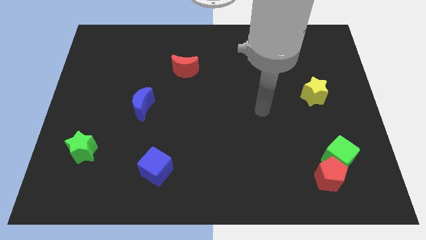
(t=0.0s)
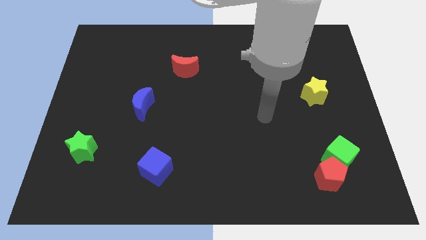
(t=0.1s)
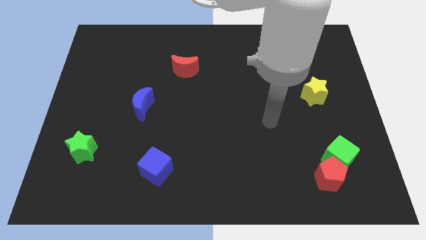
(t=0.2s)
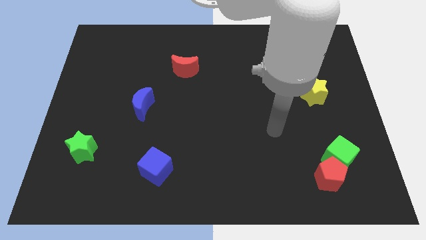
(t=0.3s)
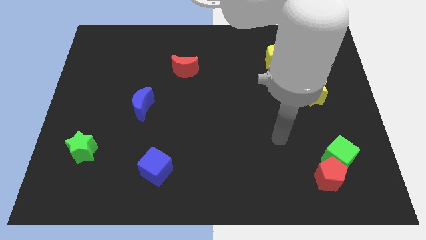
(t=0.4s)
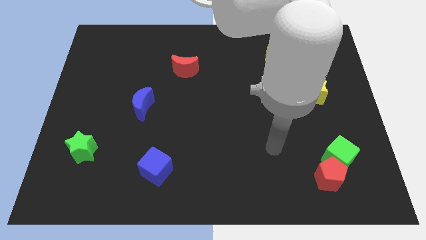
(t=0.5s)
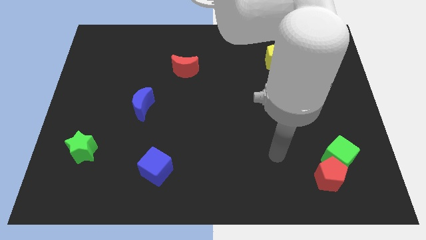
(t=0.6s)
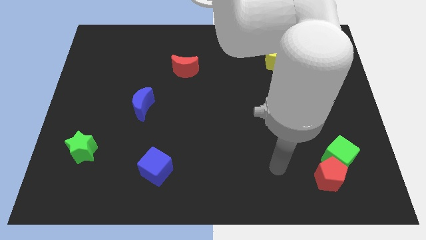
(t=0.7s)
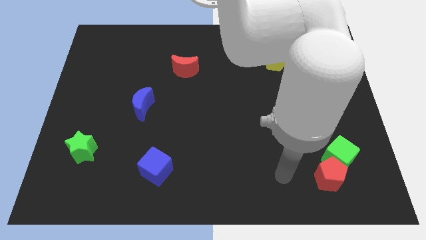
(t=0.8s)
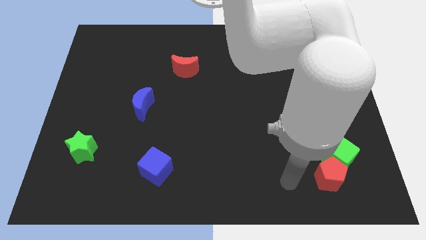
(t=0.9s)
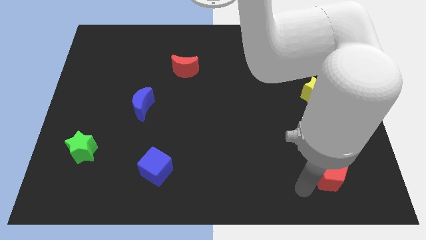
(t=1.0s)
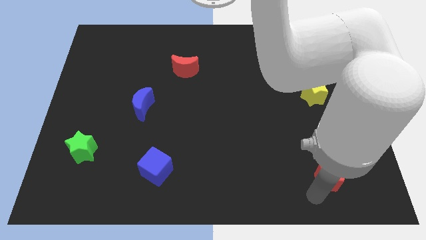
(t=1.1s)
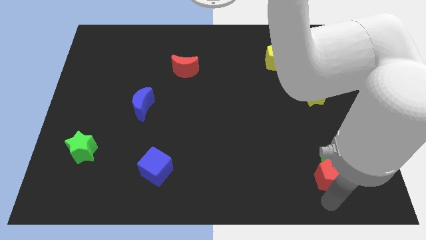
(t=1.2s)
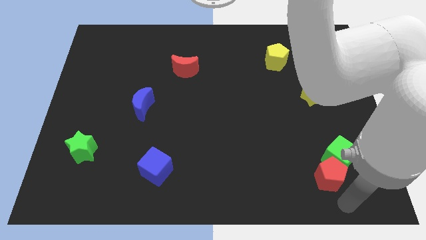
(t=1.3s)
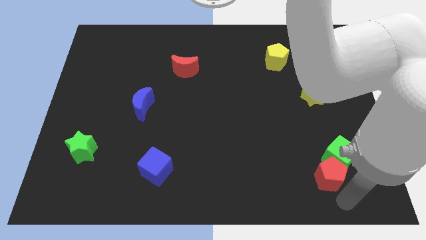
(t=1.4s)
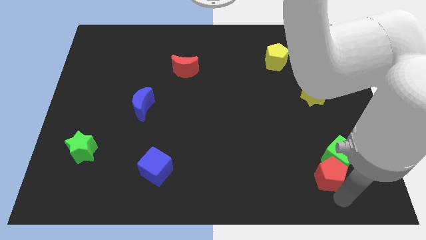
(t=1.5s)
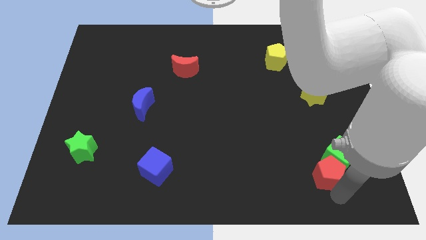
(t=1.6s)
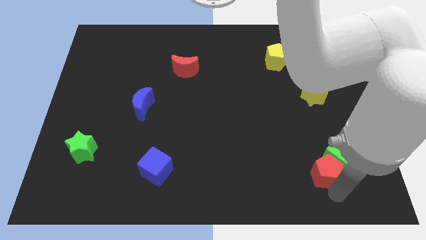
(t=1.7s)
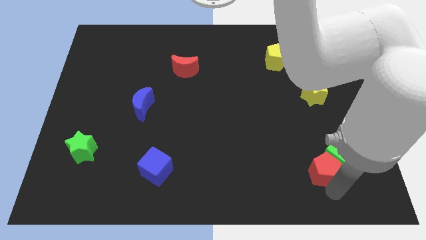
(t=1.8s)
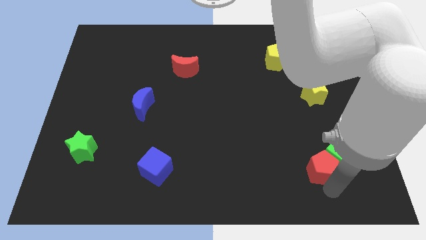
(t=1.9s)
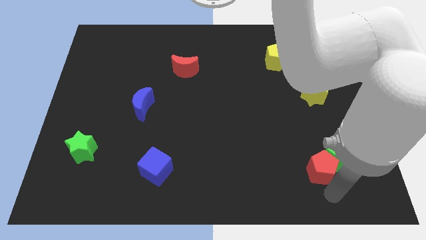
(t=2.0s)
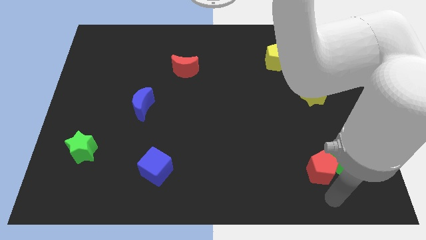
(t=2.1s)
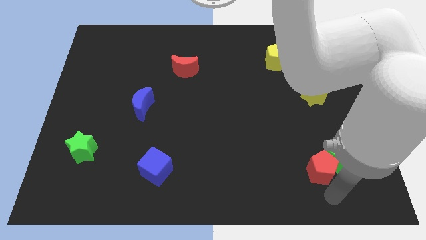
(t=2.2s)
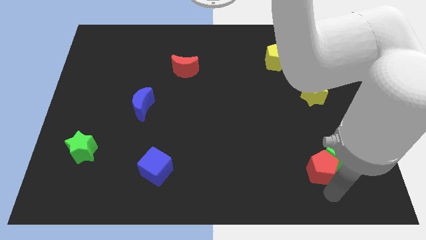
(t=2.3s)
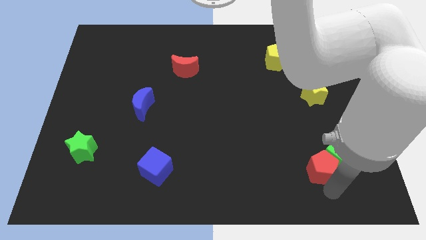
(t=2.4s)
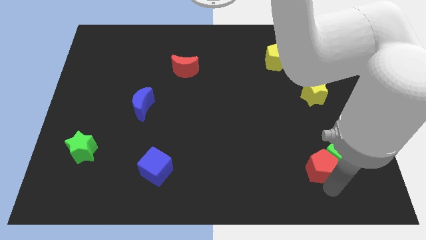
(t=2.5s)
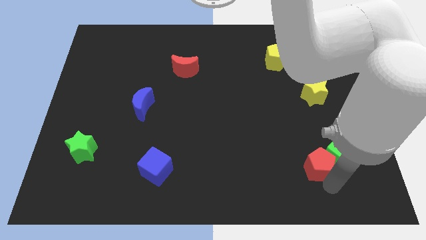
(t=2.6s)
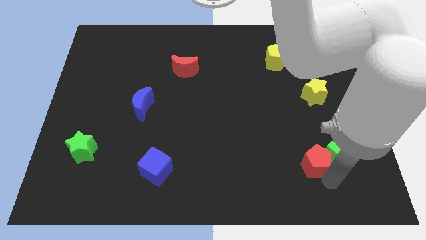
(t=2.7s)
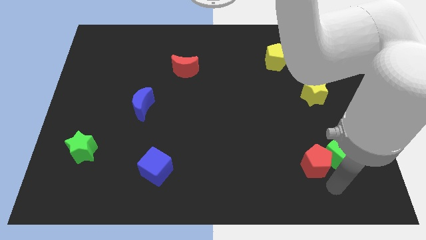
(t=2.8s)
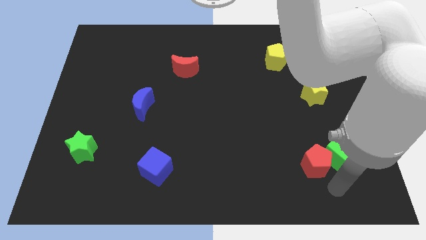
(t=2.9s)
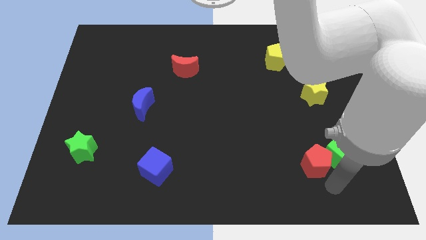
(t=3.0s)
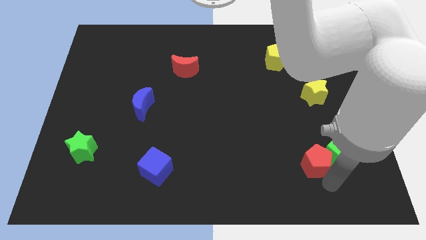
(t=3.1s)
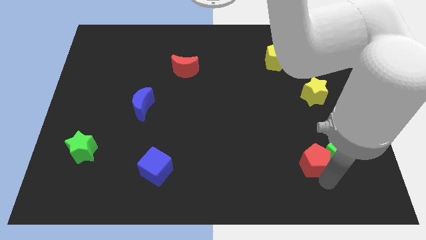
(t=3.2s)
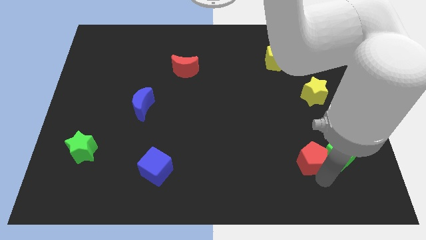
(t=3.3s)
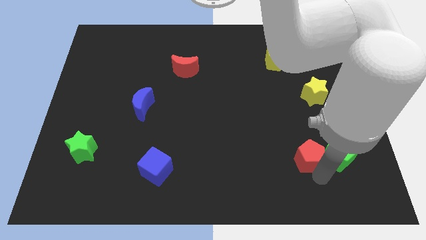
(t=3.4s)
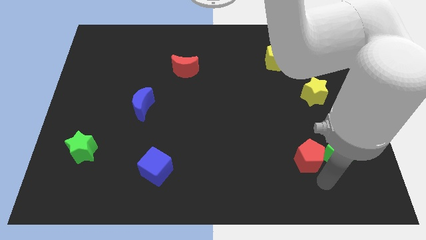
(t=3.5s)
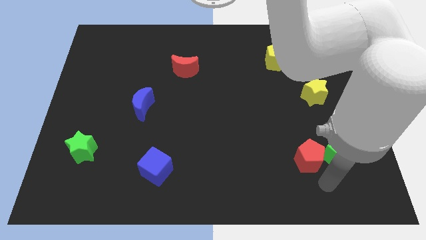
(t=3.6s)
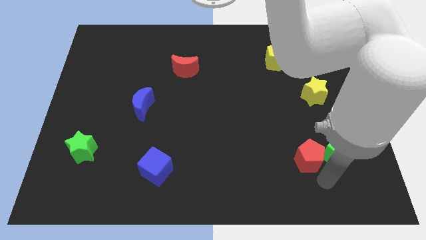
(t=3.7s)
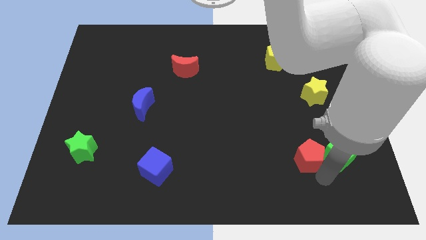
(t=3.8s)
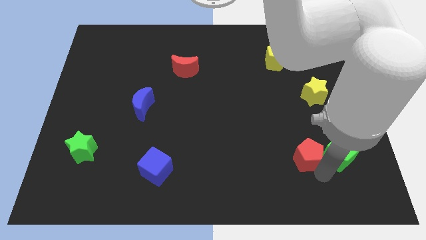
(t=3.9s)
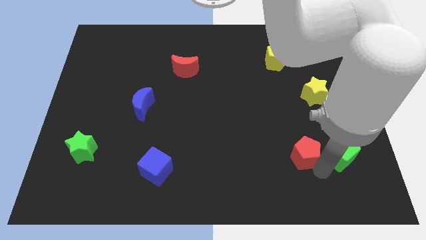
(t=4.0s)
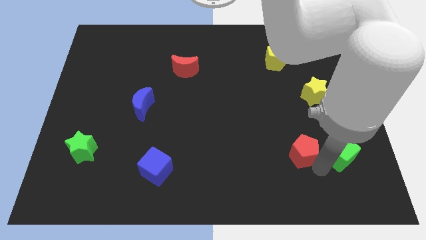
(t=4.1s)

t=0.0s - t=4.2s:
move the red pentagon up and to the left slightly

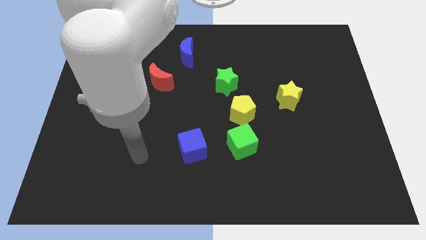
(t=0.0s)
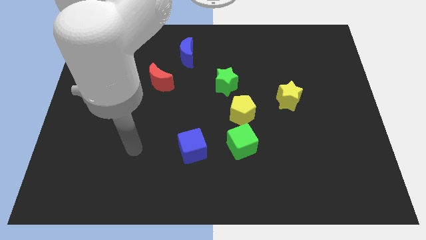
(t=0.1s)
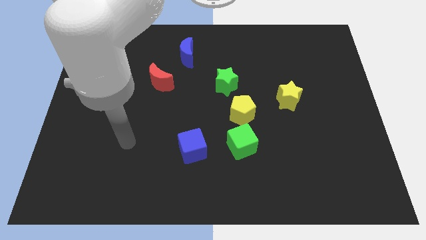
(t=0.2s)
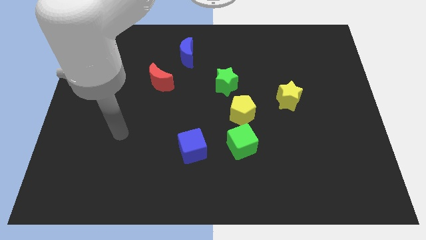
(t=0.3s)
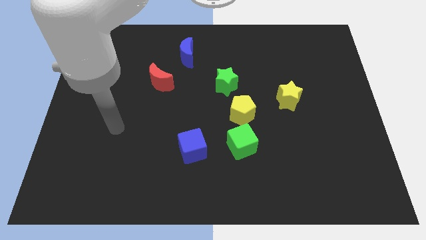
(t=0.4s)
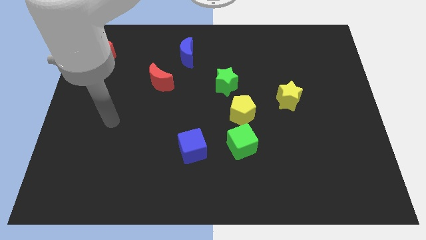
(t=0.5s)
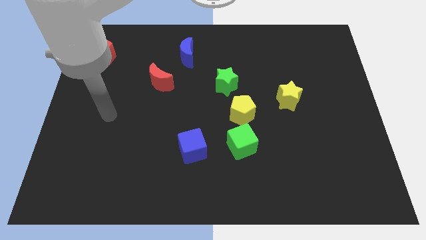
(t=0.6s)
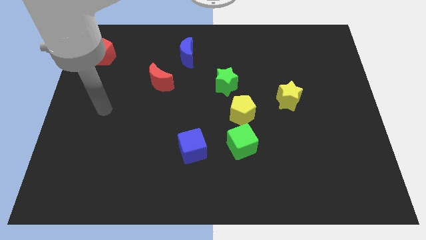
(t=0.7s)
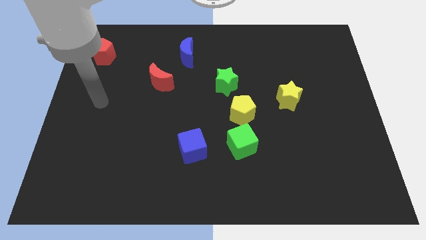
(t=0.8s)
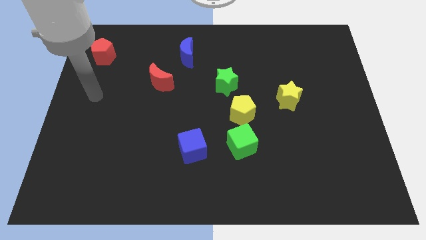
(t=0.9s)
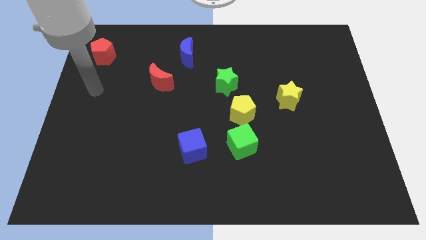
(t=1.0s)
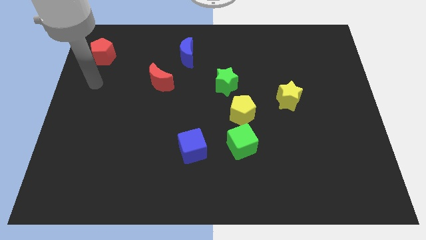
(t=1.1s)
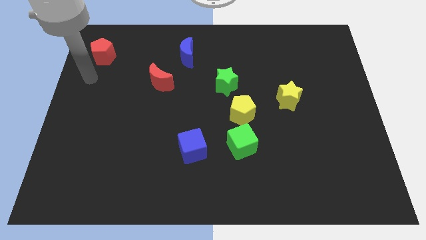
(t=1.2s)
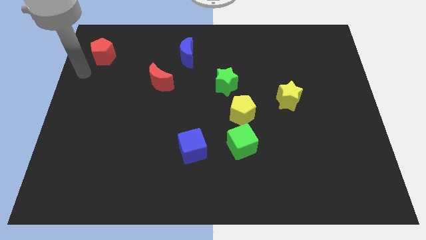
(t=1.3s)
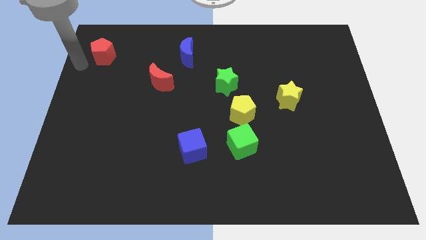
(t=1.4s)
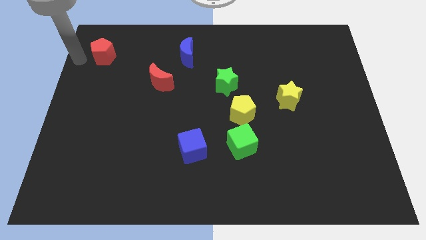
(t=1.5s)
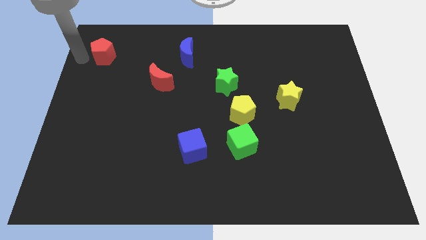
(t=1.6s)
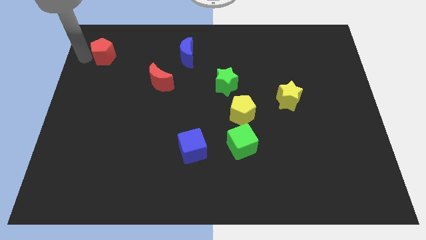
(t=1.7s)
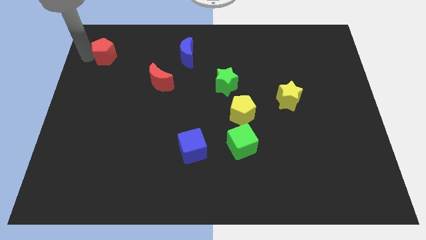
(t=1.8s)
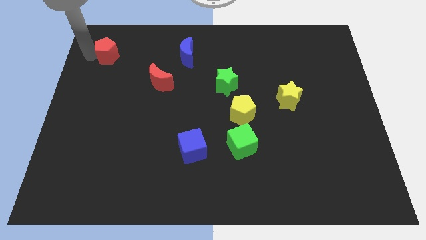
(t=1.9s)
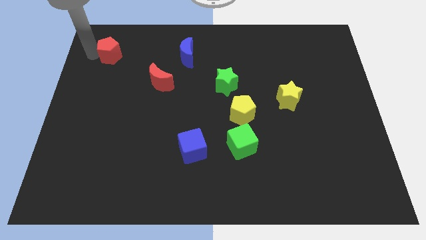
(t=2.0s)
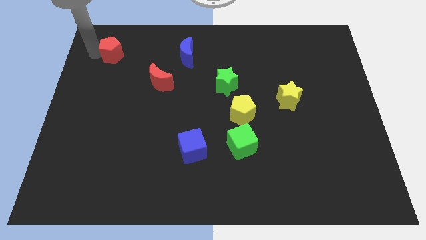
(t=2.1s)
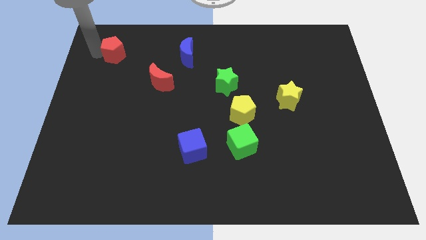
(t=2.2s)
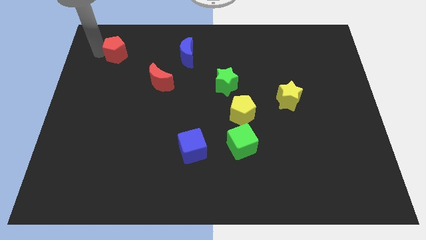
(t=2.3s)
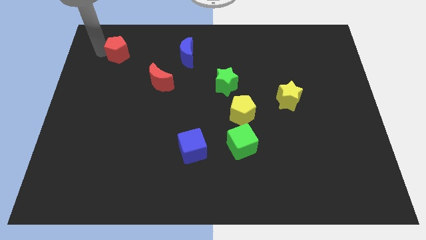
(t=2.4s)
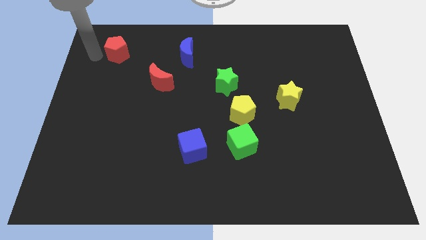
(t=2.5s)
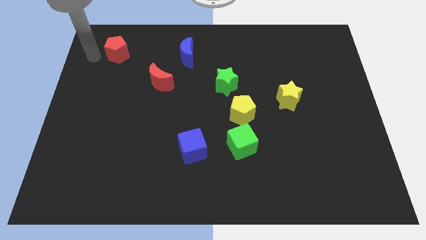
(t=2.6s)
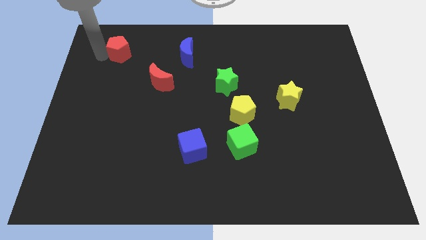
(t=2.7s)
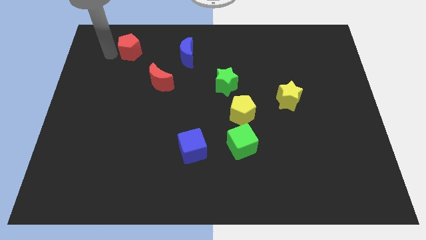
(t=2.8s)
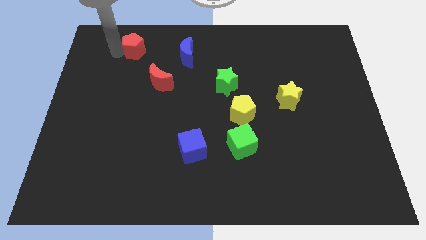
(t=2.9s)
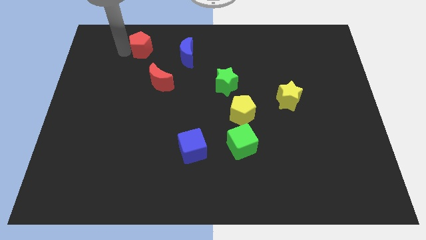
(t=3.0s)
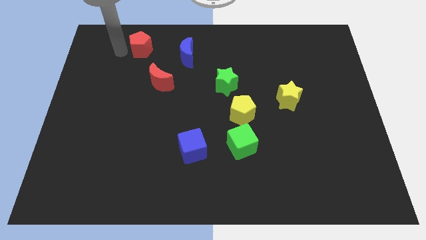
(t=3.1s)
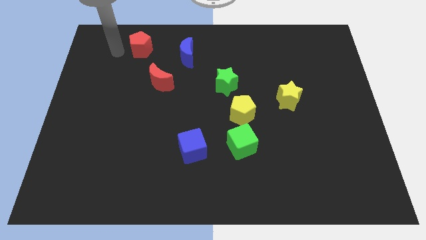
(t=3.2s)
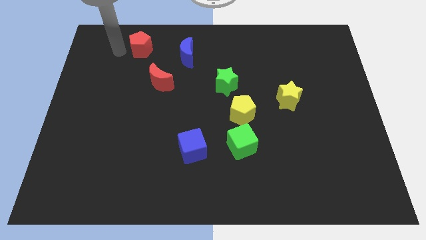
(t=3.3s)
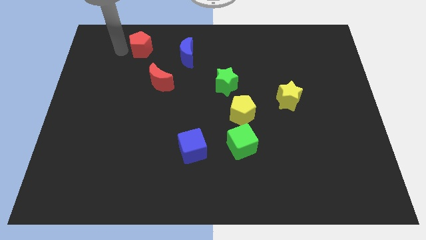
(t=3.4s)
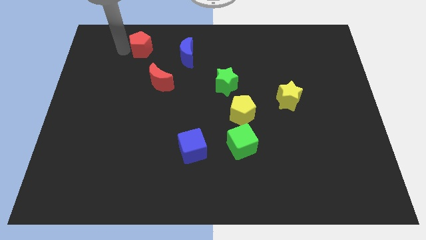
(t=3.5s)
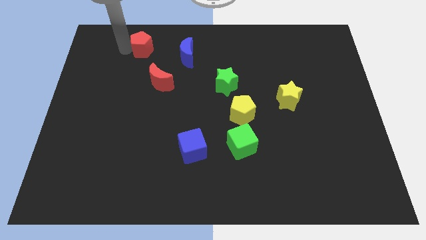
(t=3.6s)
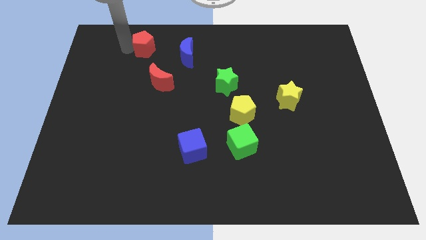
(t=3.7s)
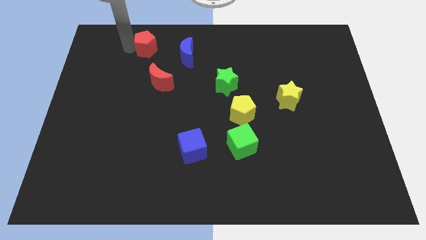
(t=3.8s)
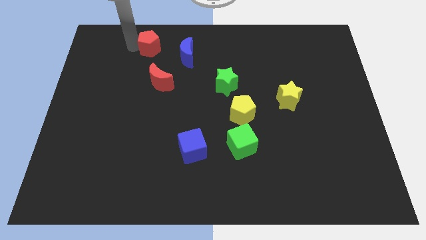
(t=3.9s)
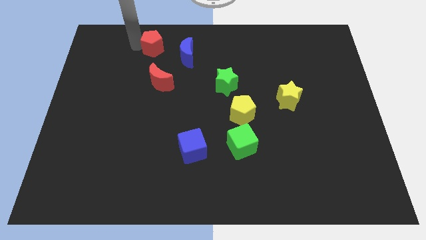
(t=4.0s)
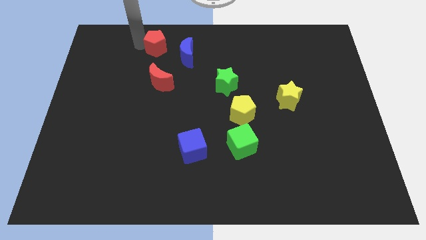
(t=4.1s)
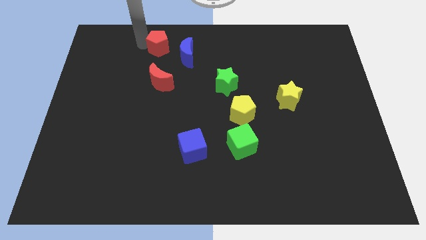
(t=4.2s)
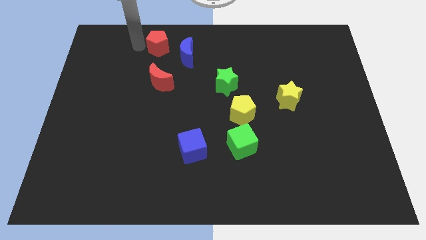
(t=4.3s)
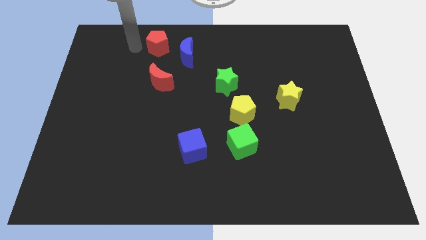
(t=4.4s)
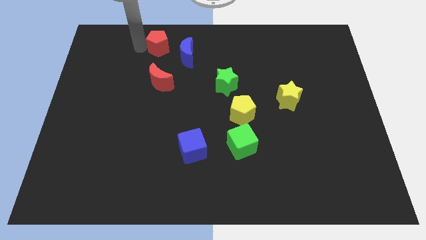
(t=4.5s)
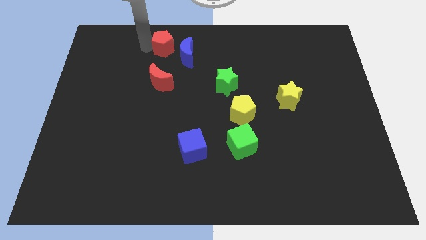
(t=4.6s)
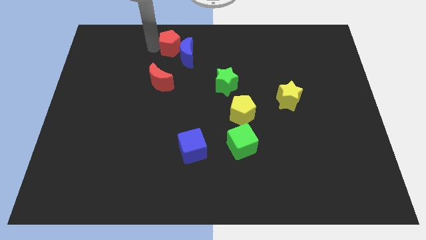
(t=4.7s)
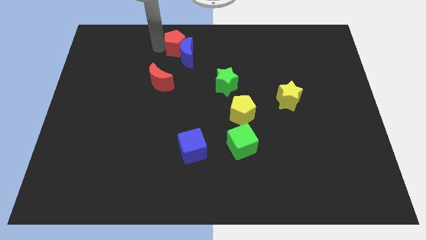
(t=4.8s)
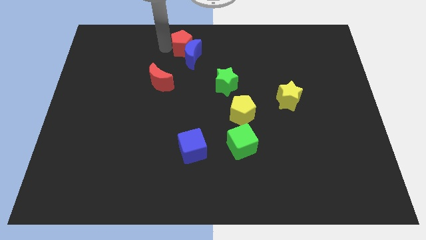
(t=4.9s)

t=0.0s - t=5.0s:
push the red pentagon to the right
